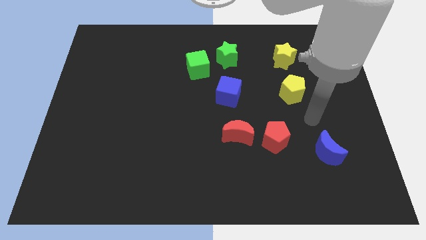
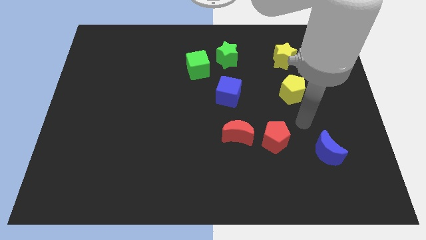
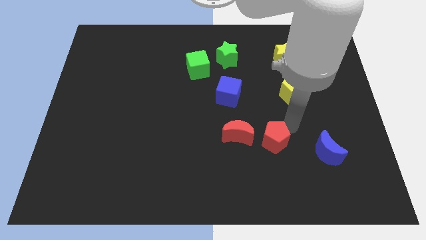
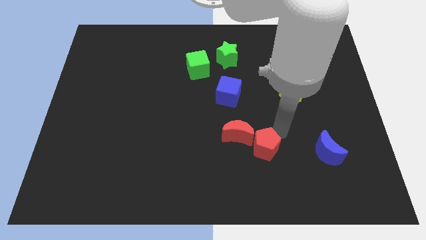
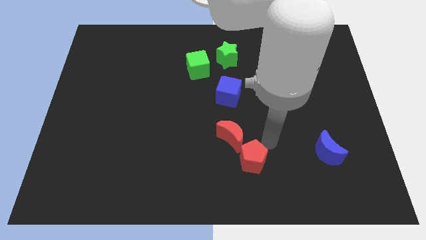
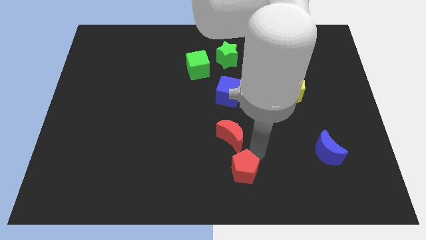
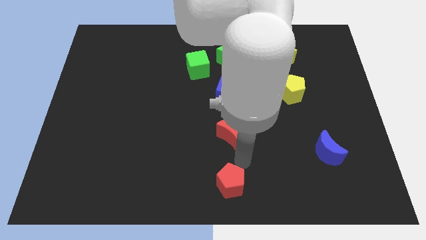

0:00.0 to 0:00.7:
pull the red moon apart from the red pentagon

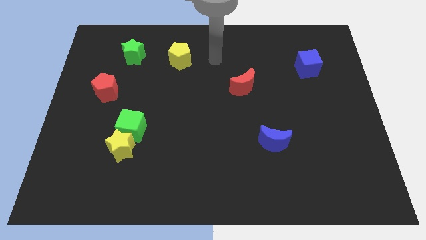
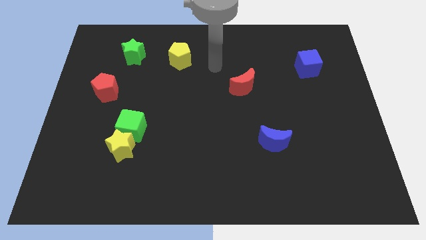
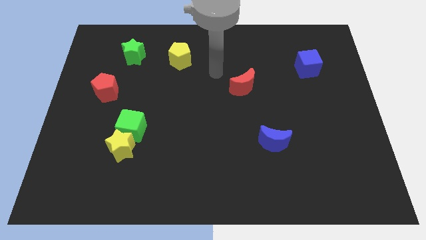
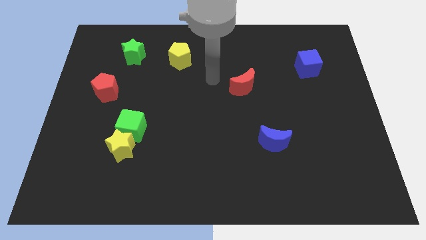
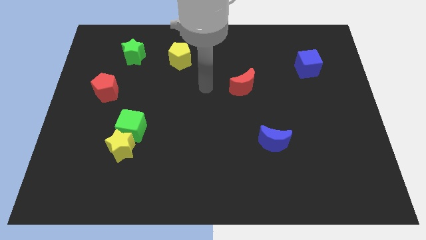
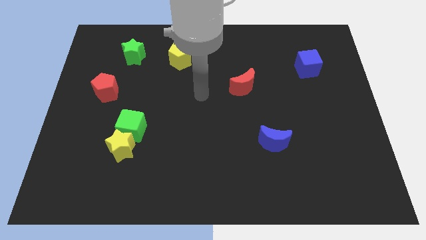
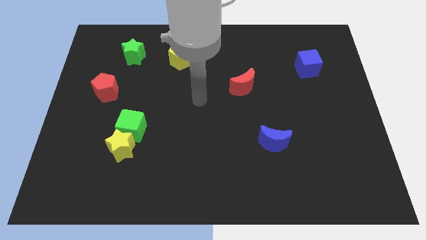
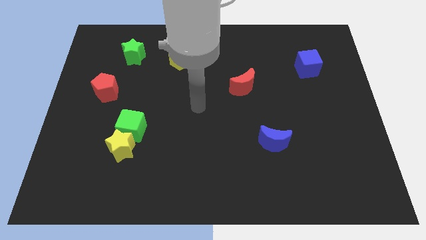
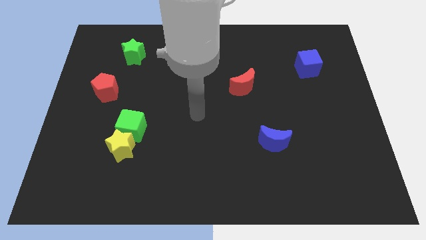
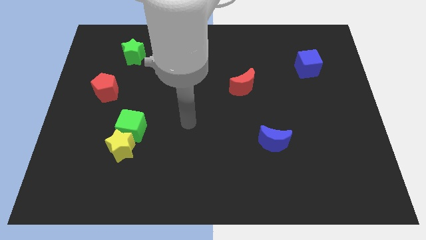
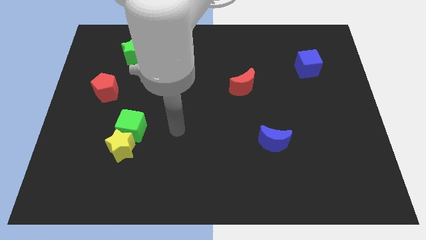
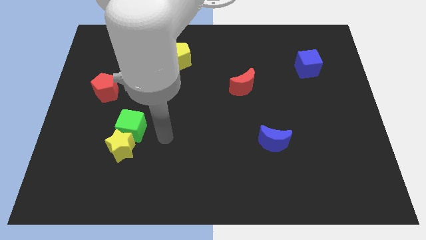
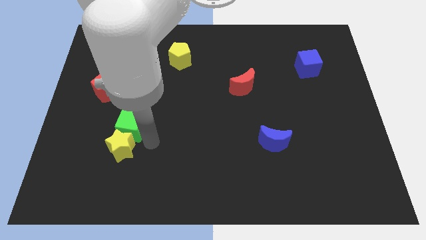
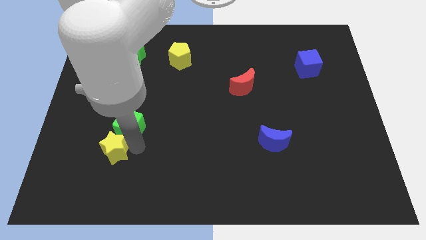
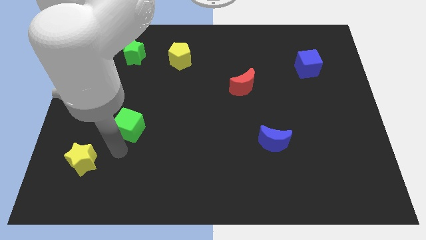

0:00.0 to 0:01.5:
move the green cube away from the yellow star

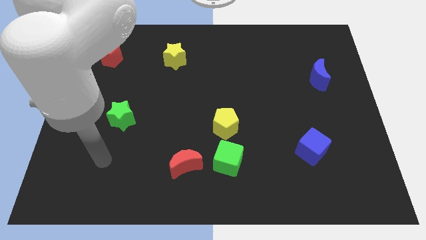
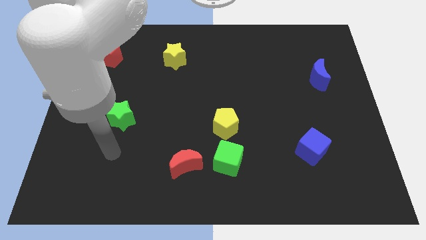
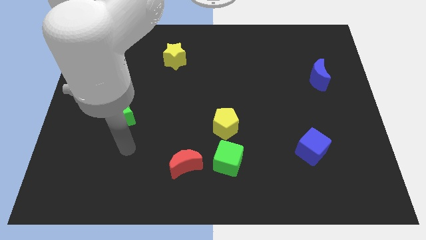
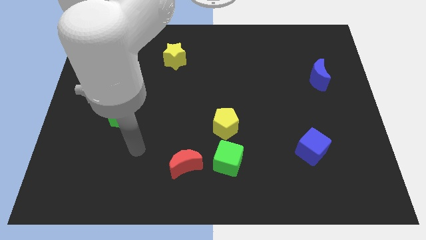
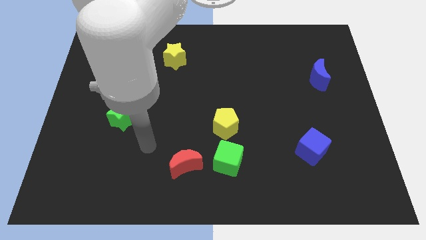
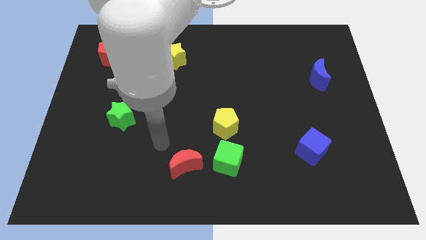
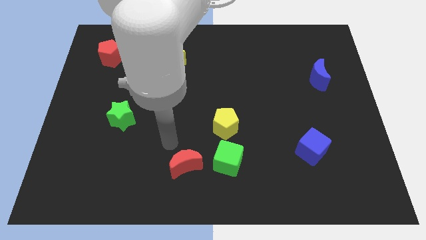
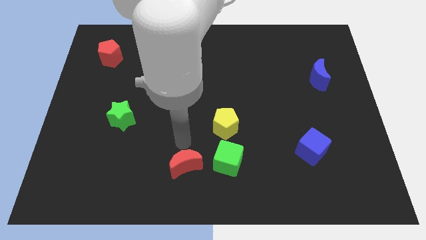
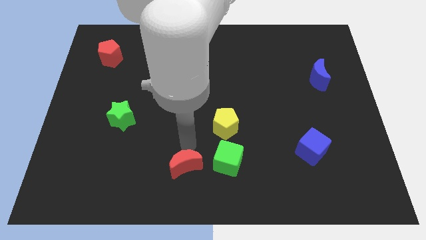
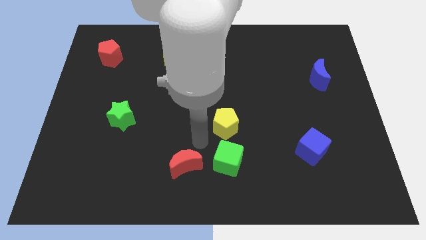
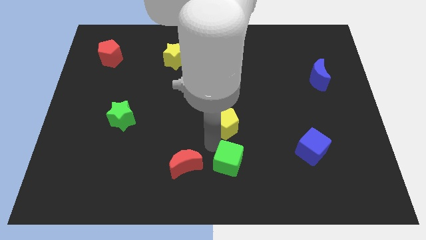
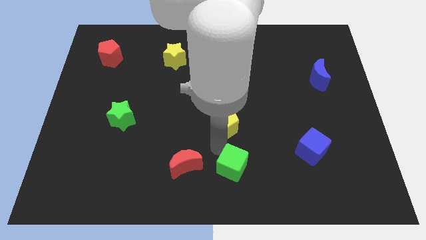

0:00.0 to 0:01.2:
move the yellow pentagon away from the green cube

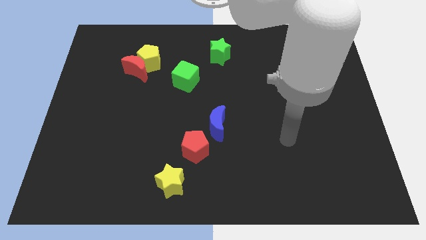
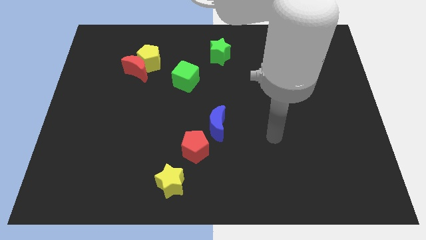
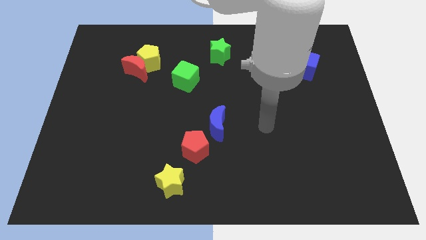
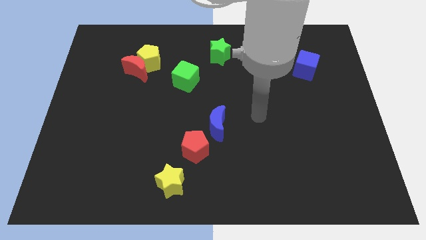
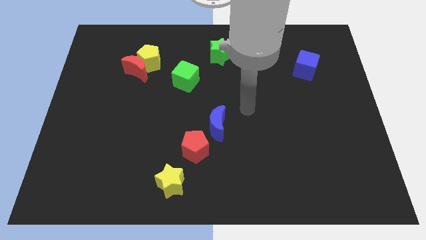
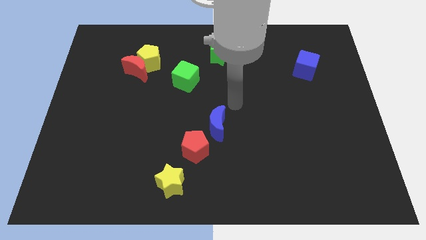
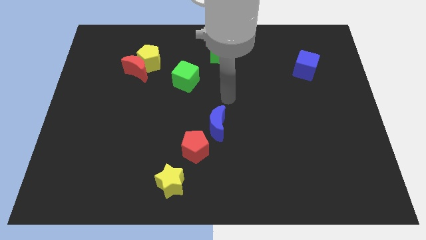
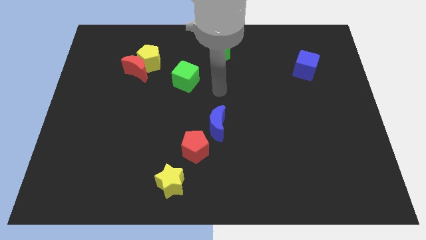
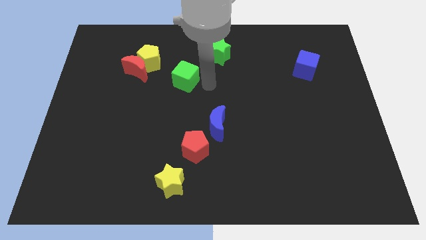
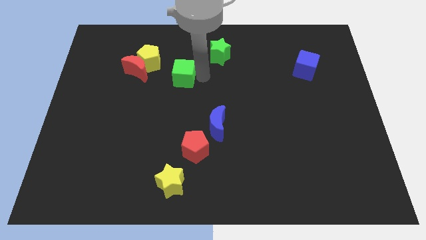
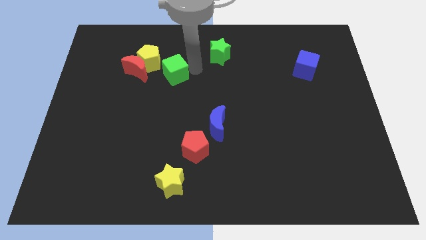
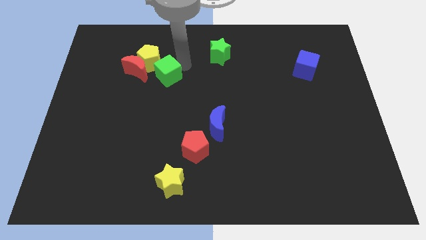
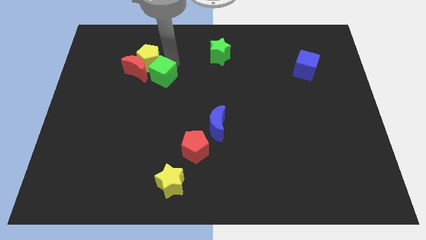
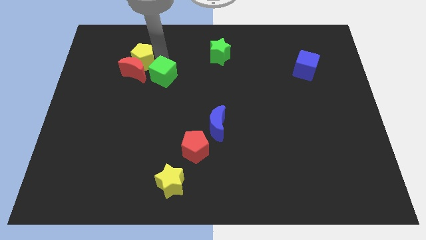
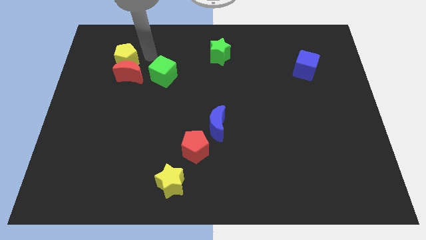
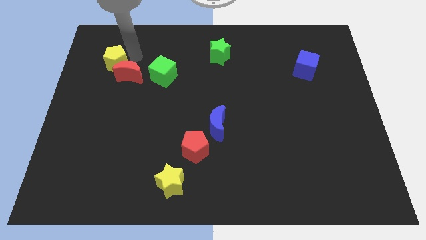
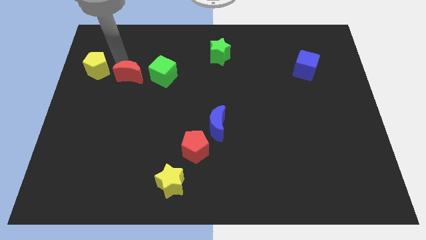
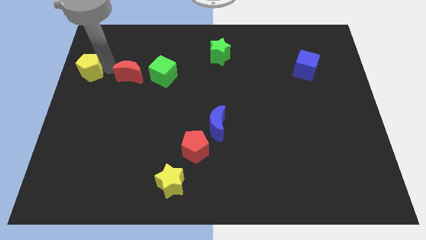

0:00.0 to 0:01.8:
separate the red moon from the yellow pentagon

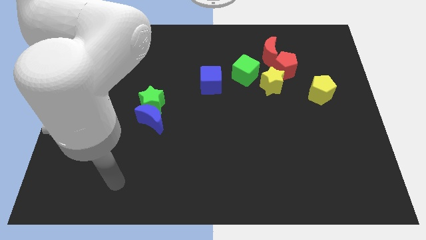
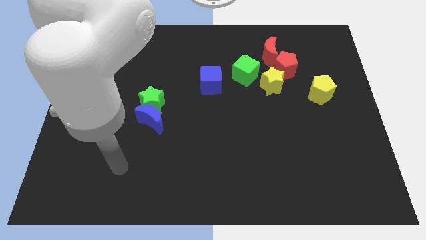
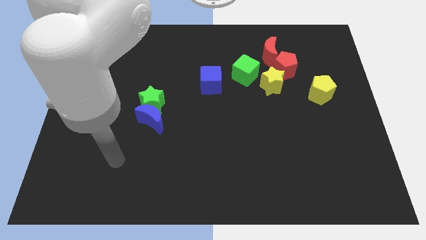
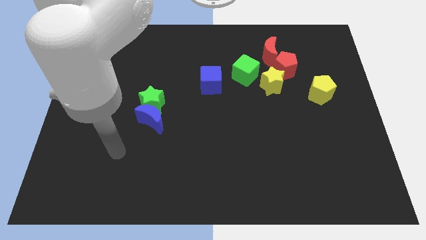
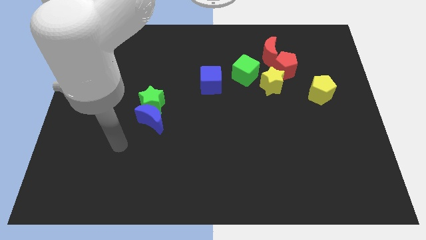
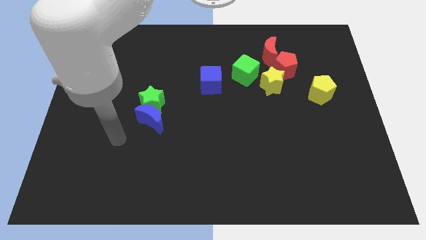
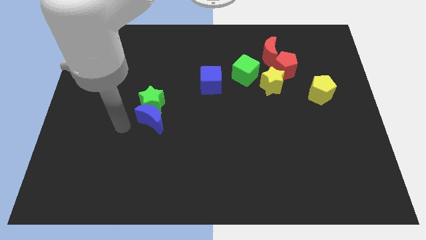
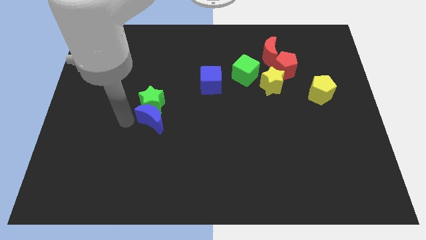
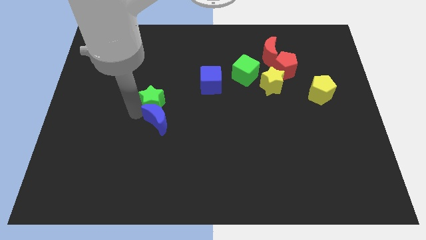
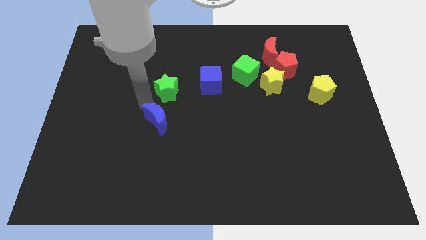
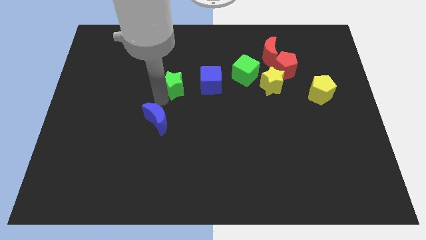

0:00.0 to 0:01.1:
separate the blue moon from the green star

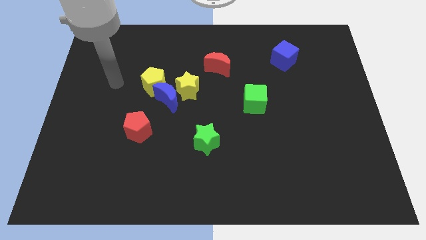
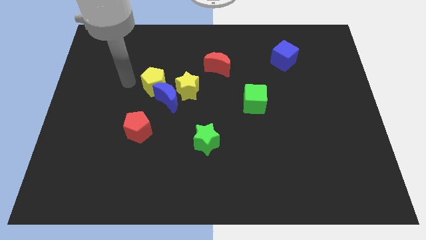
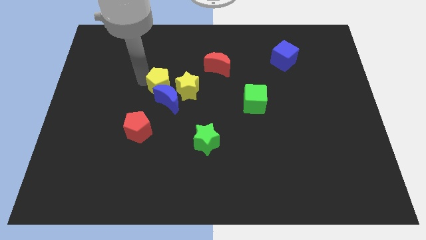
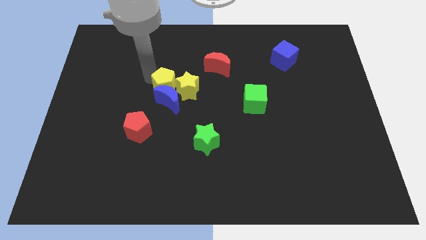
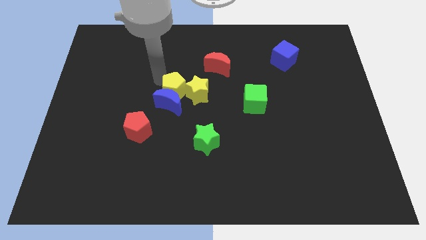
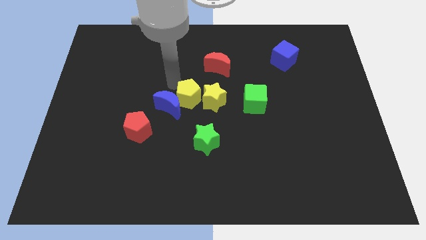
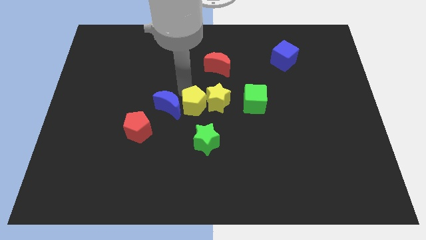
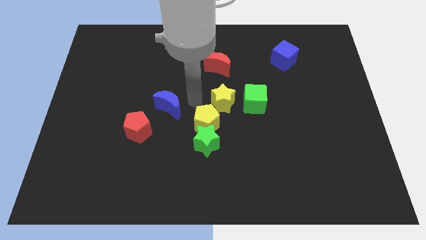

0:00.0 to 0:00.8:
pull the blue moon apart from the yellow star and yellow pentagon

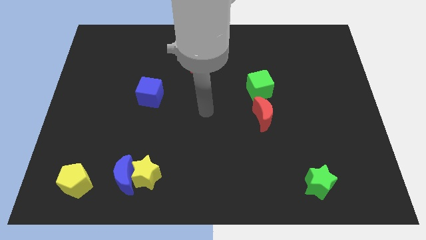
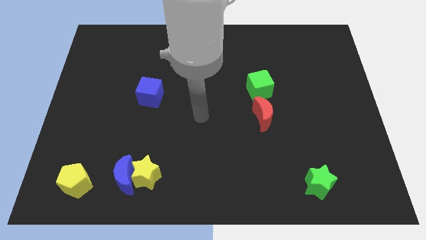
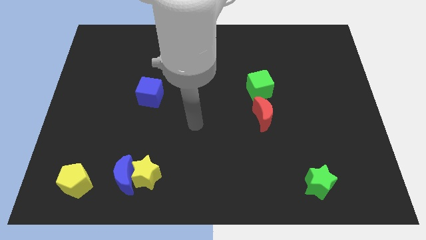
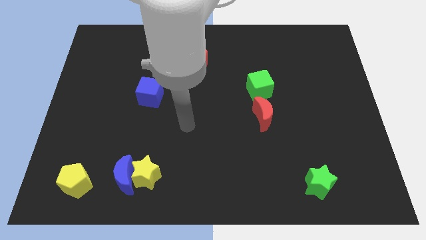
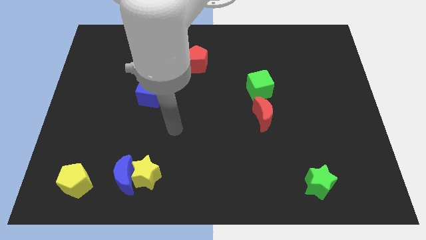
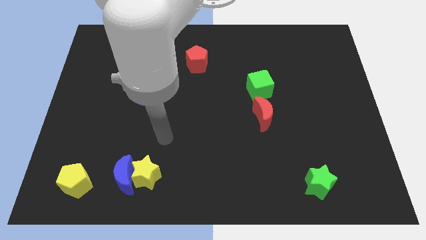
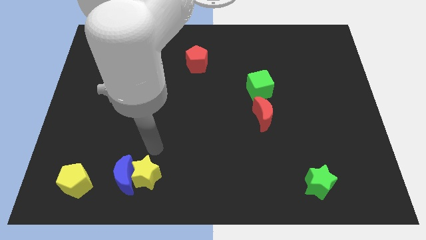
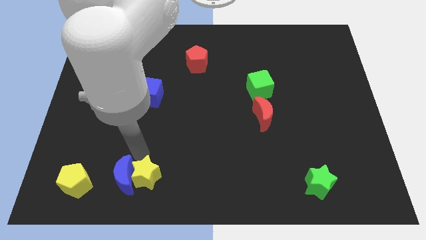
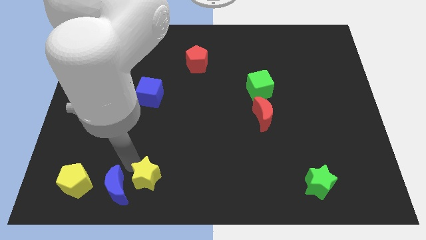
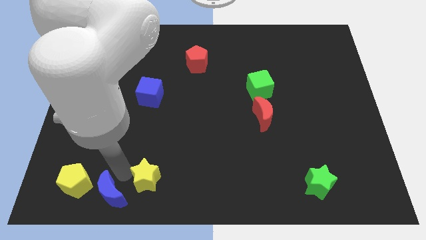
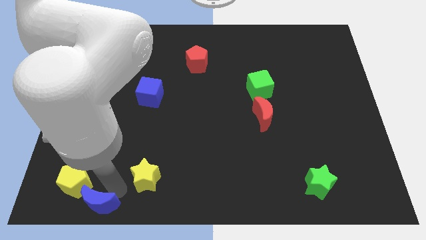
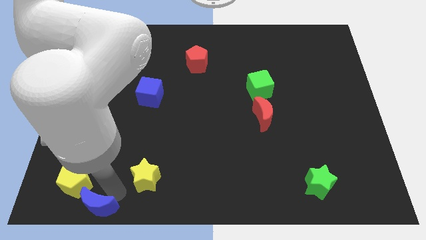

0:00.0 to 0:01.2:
separate the yellow star from the blue moon

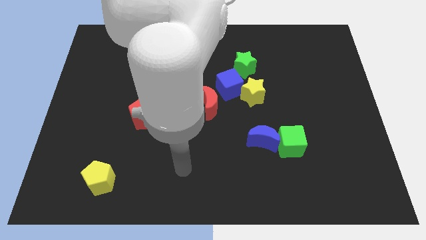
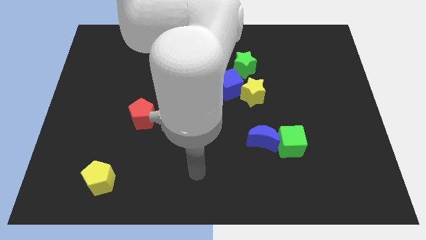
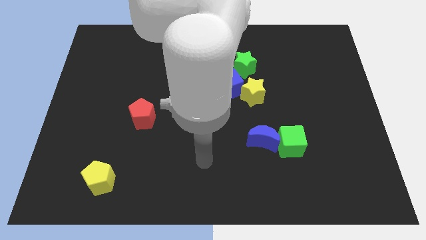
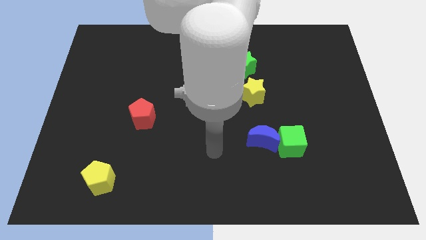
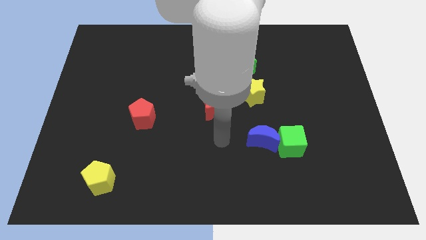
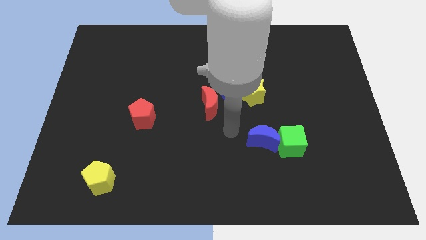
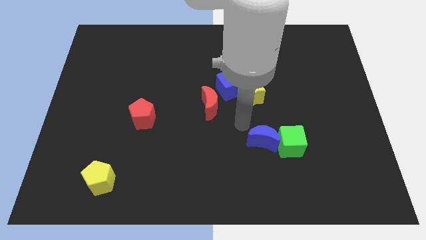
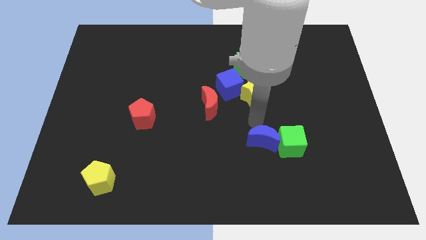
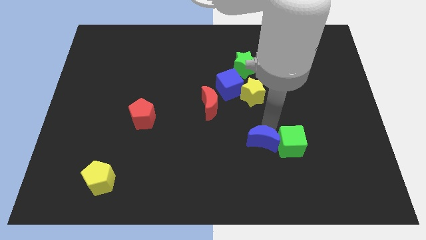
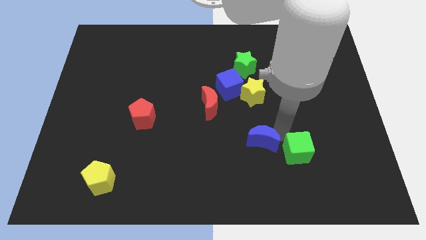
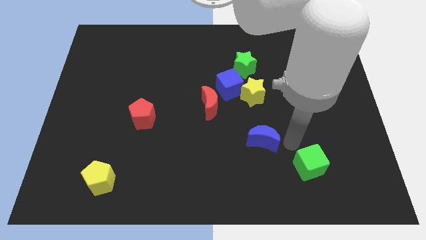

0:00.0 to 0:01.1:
pull the blue moon apart from the green cube
